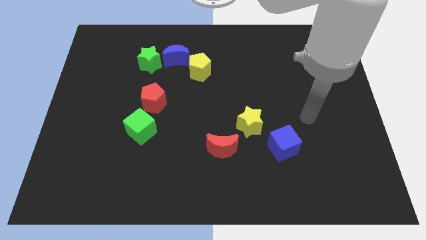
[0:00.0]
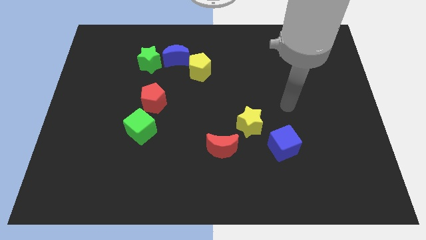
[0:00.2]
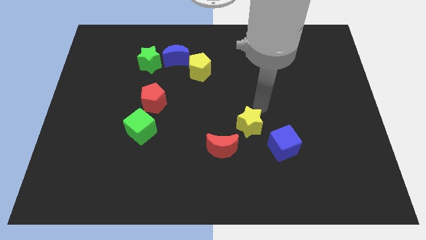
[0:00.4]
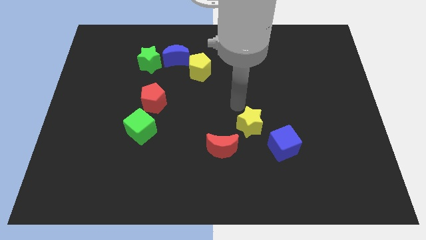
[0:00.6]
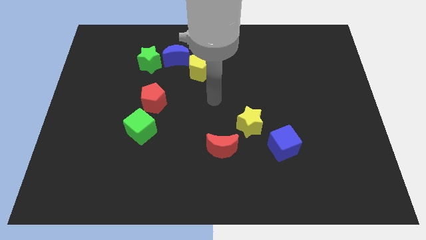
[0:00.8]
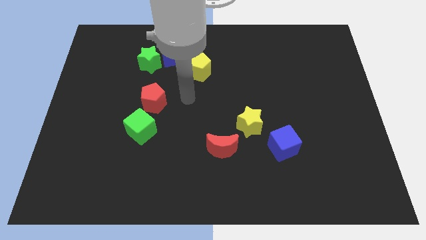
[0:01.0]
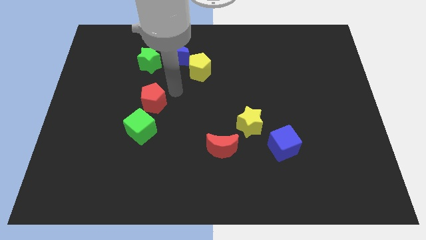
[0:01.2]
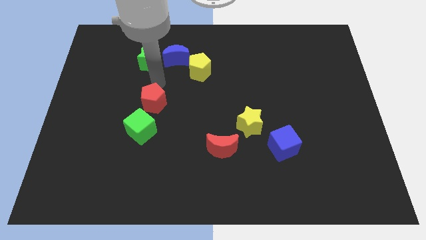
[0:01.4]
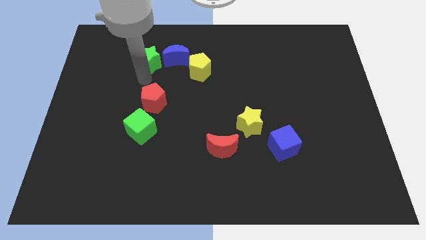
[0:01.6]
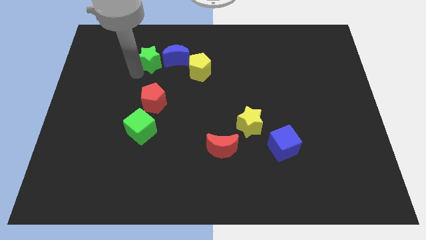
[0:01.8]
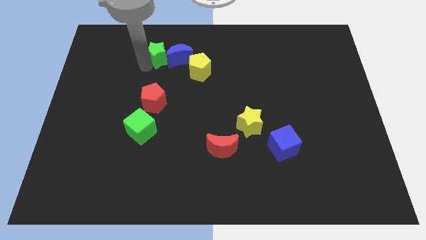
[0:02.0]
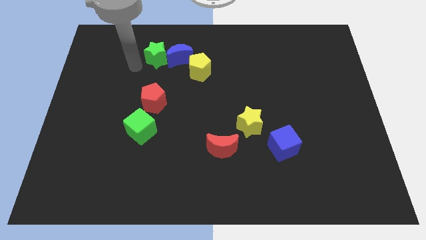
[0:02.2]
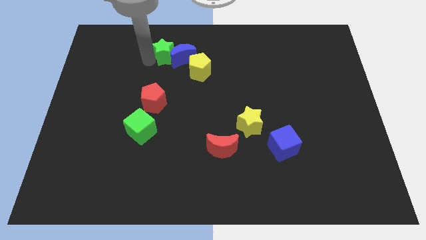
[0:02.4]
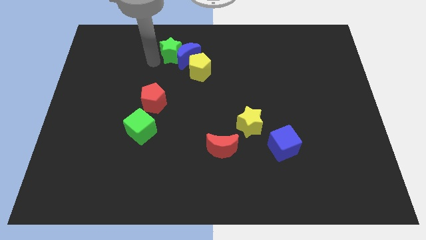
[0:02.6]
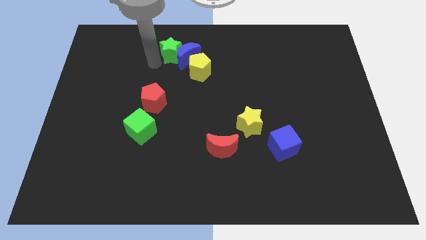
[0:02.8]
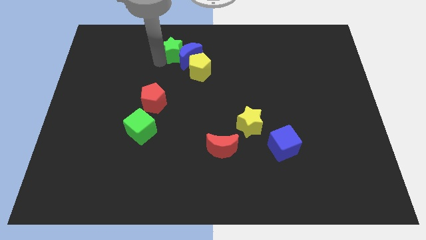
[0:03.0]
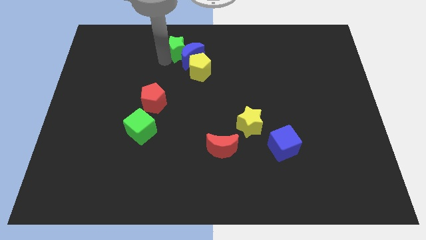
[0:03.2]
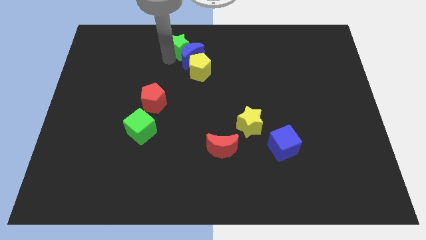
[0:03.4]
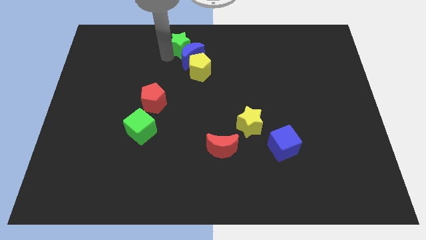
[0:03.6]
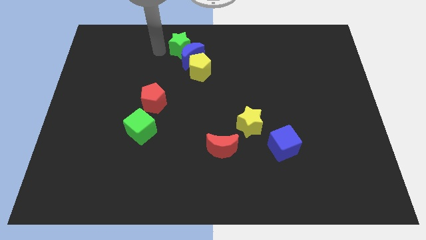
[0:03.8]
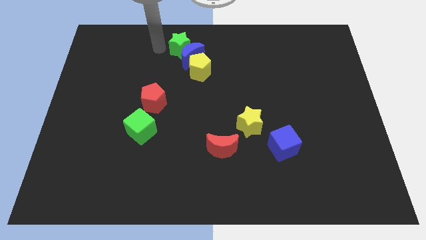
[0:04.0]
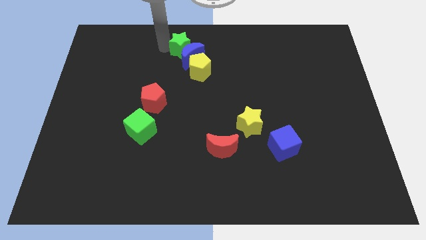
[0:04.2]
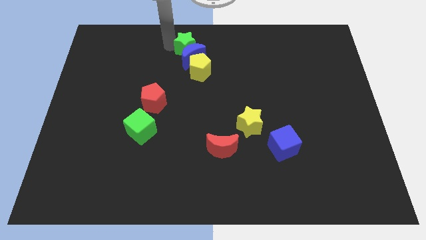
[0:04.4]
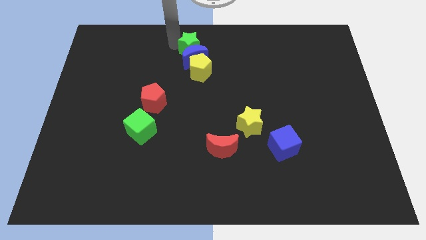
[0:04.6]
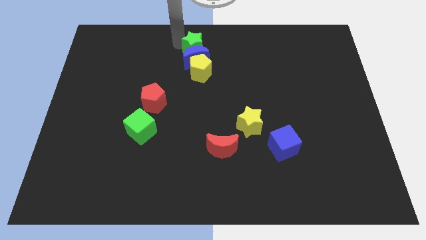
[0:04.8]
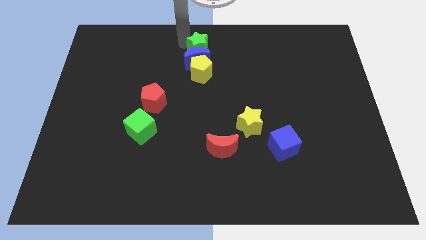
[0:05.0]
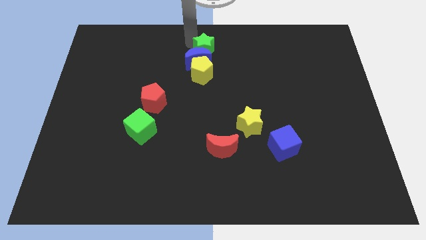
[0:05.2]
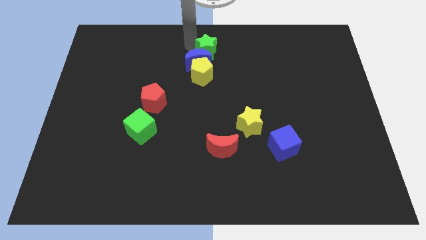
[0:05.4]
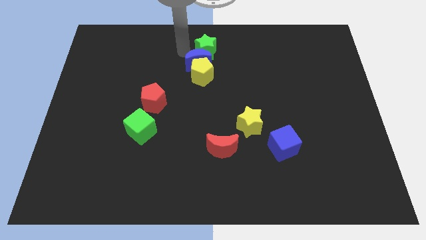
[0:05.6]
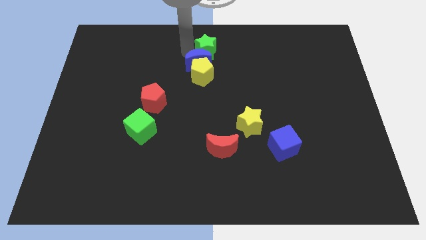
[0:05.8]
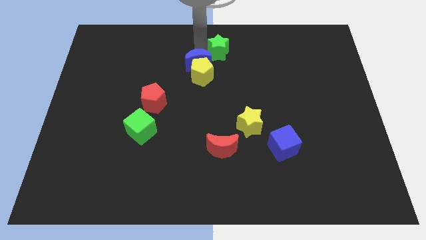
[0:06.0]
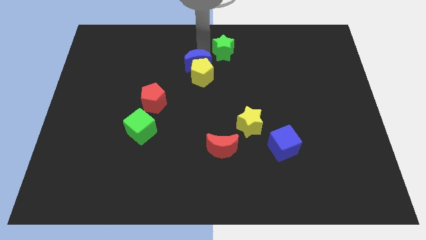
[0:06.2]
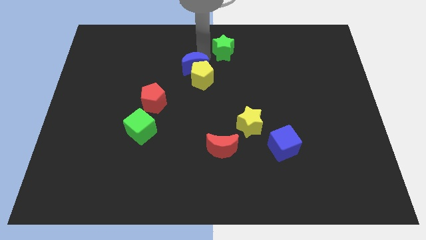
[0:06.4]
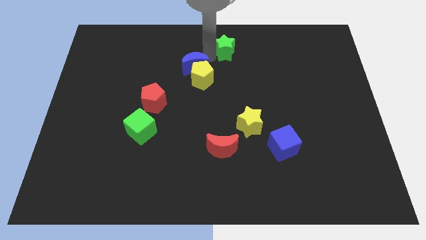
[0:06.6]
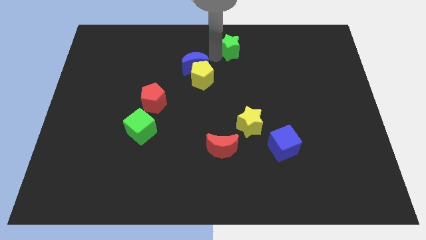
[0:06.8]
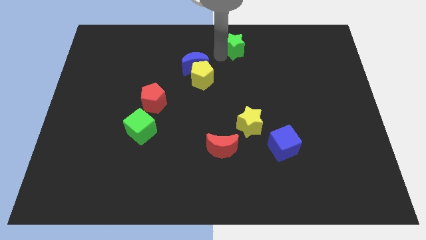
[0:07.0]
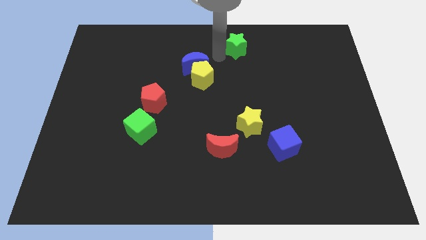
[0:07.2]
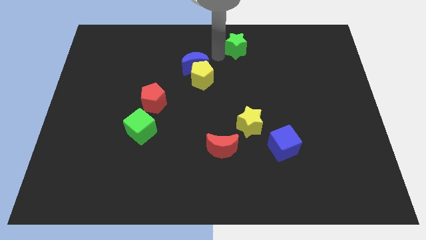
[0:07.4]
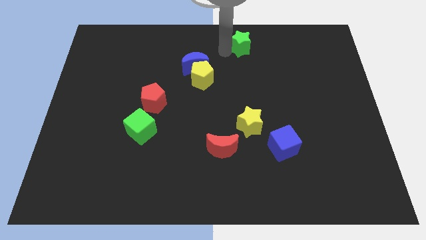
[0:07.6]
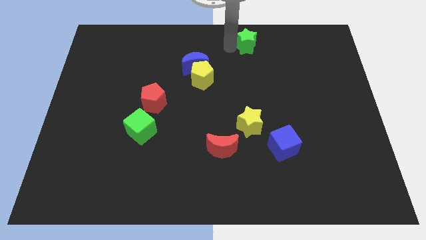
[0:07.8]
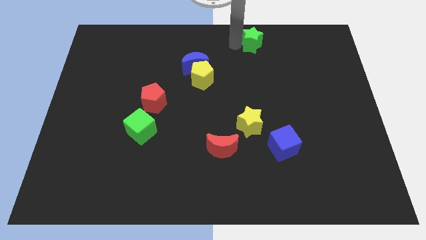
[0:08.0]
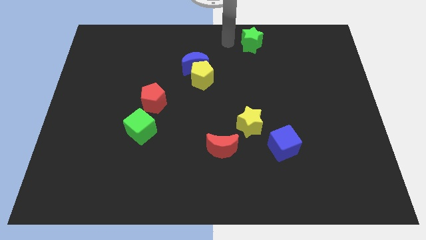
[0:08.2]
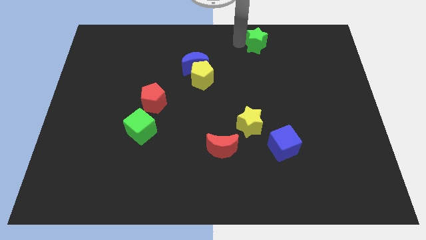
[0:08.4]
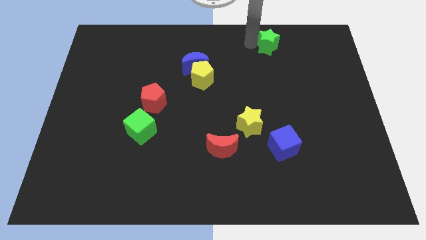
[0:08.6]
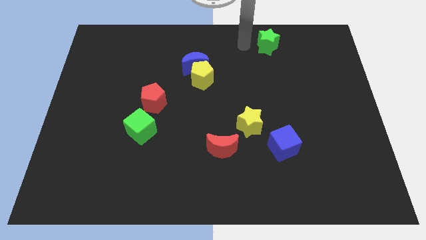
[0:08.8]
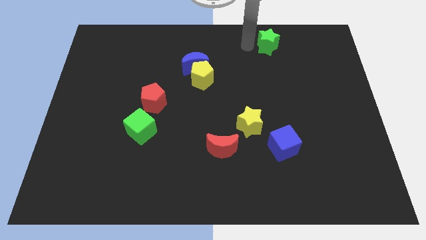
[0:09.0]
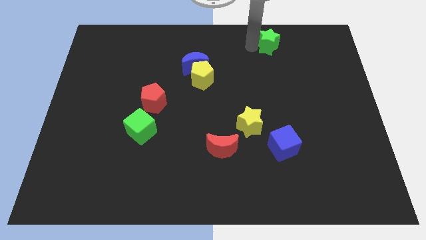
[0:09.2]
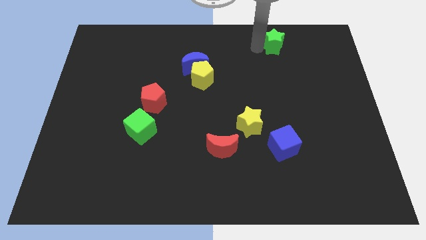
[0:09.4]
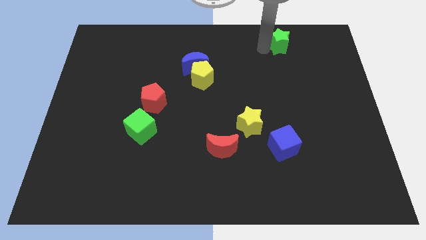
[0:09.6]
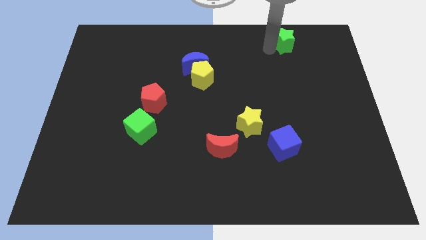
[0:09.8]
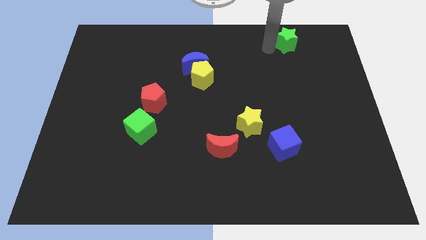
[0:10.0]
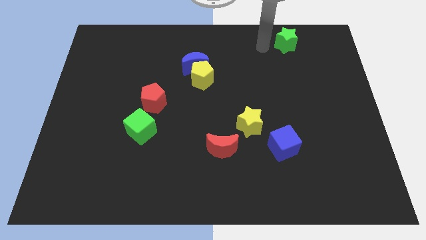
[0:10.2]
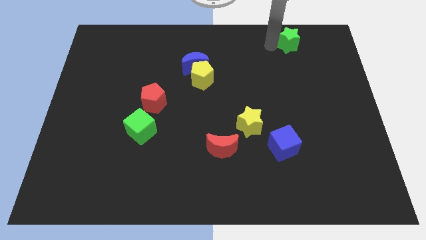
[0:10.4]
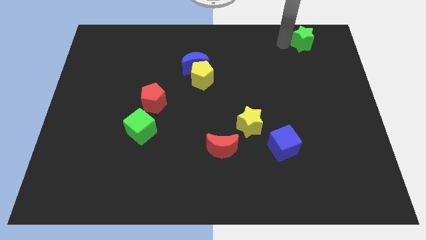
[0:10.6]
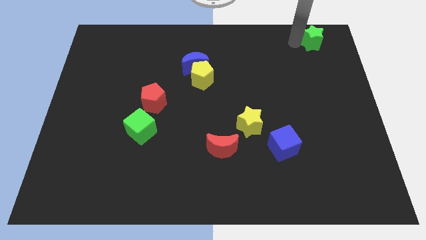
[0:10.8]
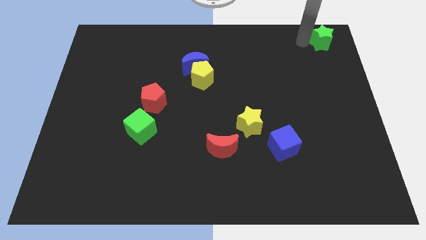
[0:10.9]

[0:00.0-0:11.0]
put the green star to the top right corner

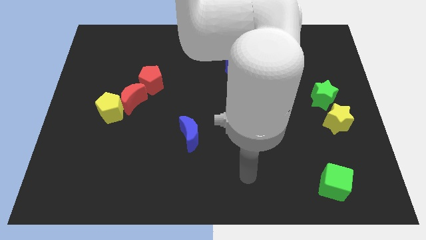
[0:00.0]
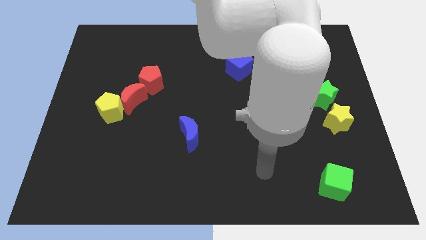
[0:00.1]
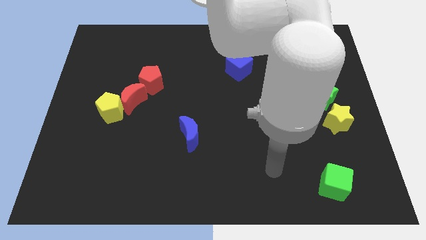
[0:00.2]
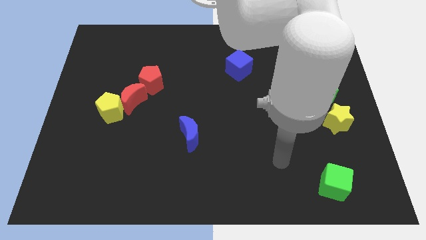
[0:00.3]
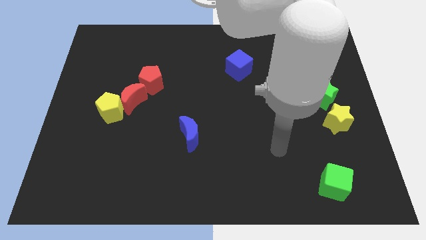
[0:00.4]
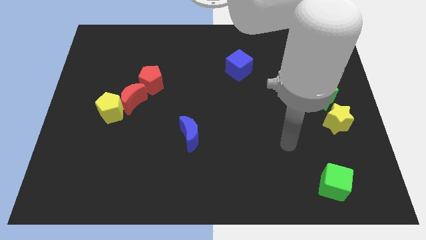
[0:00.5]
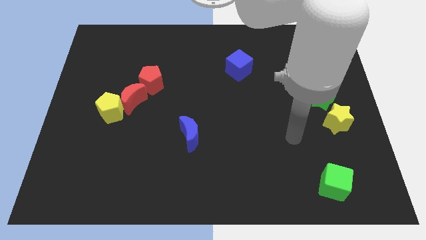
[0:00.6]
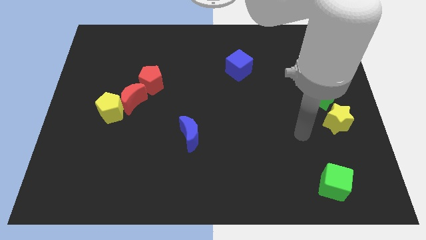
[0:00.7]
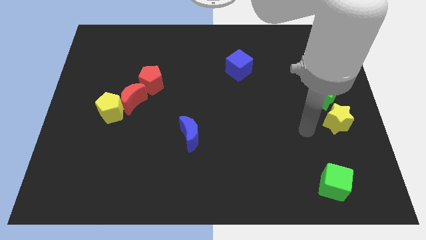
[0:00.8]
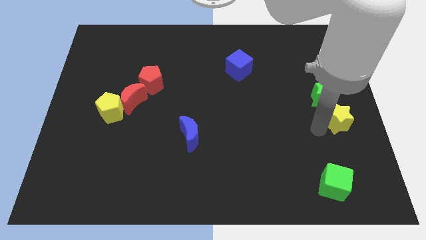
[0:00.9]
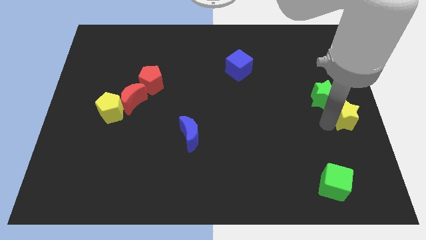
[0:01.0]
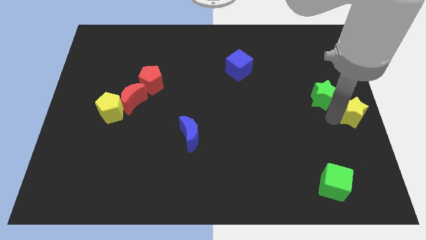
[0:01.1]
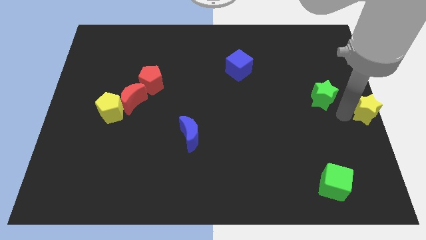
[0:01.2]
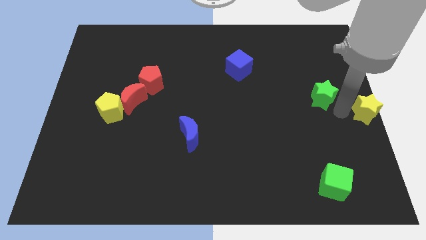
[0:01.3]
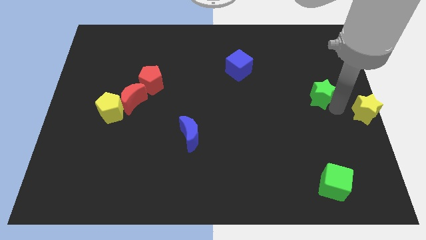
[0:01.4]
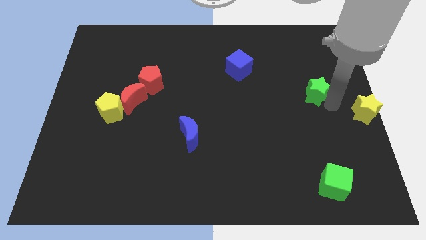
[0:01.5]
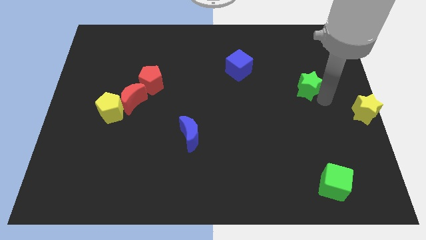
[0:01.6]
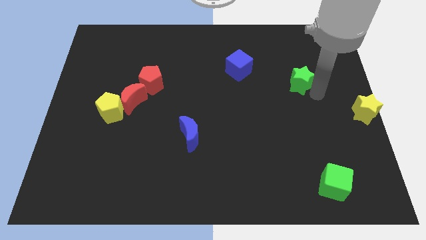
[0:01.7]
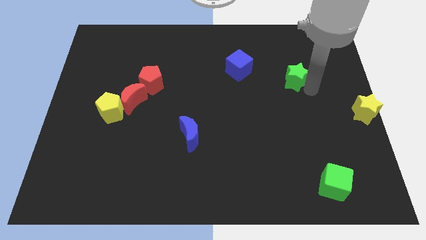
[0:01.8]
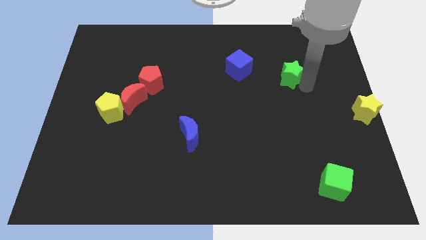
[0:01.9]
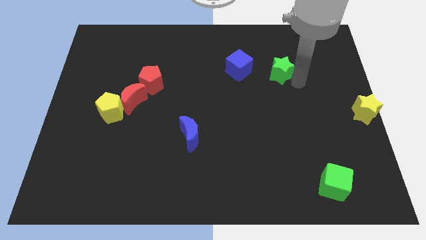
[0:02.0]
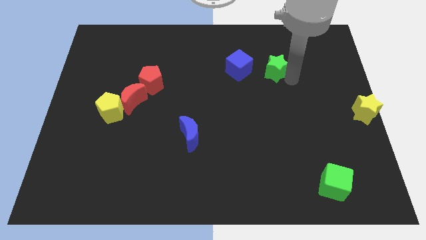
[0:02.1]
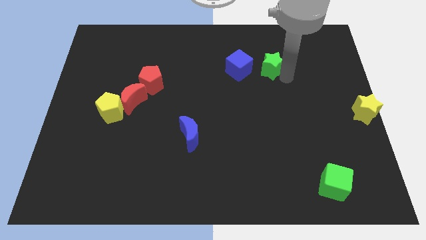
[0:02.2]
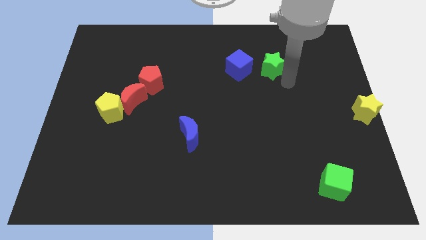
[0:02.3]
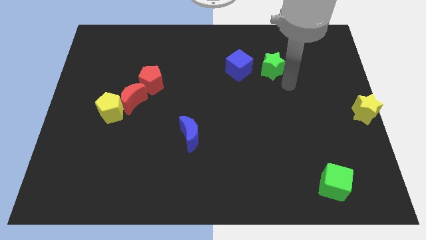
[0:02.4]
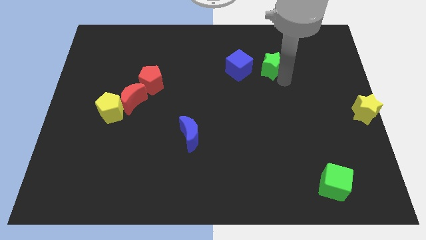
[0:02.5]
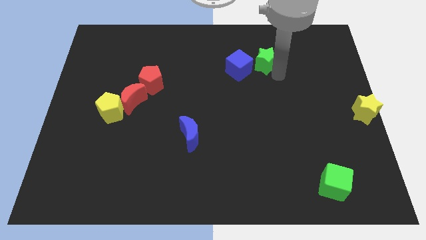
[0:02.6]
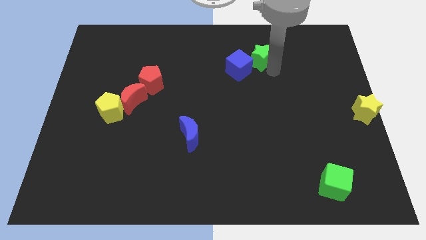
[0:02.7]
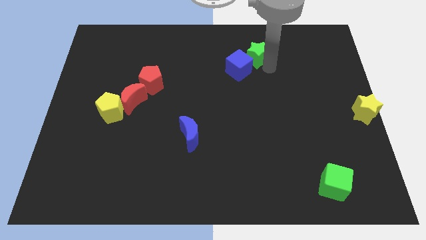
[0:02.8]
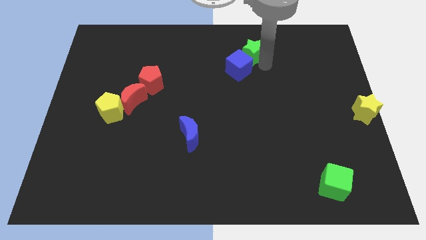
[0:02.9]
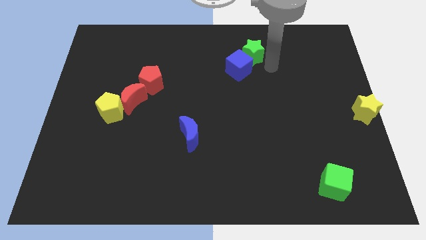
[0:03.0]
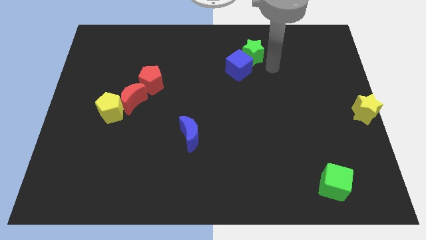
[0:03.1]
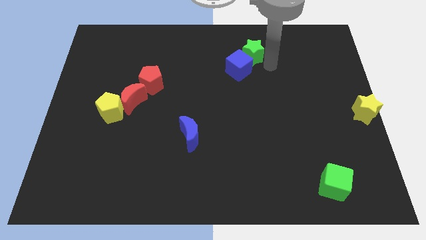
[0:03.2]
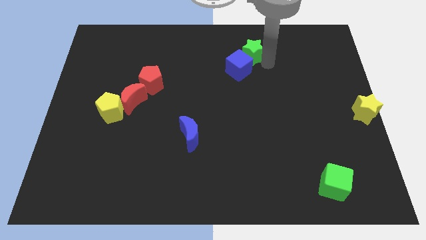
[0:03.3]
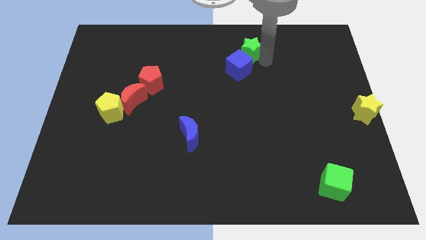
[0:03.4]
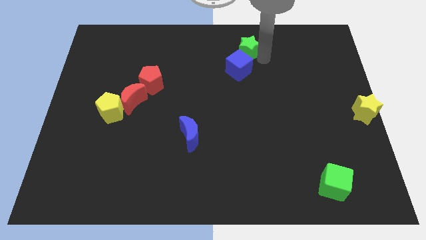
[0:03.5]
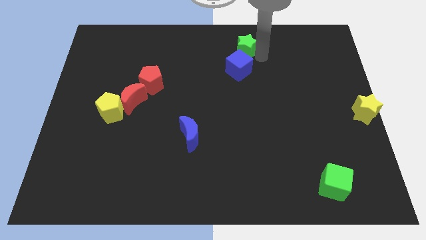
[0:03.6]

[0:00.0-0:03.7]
slide the green star to the top
